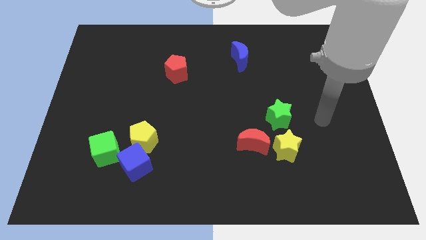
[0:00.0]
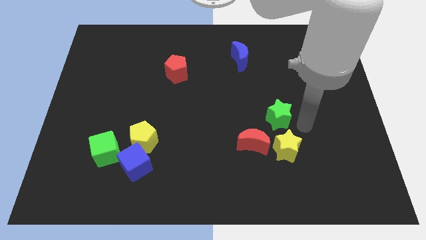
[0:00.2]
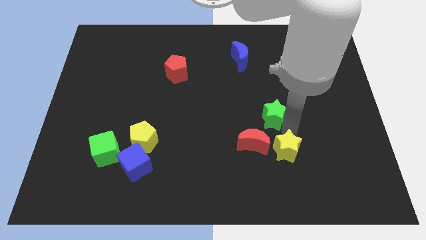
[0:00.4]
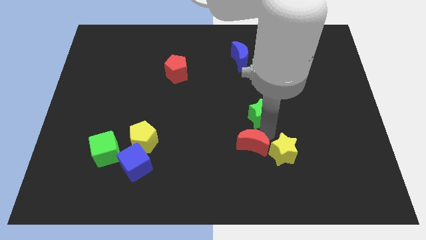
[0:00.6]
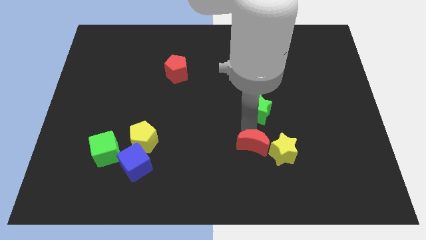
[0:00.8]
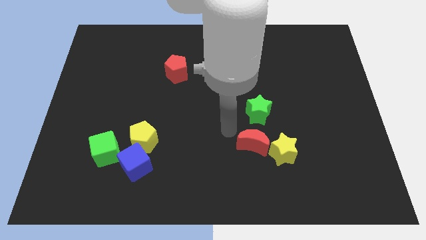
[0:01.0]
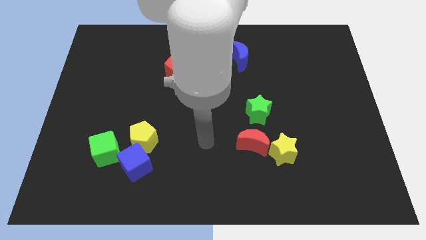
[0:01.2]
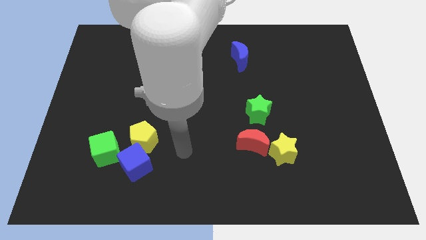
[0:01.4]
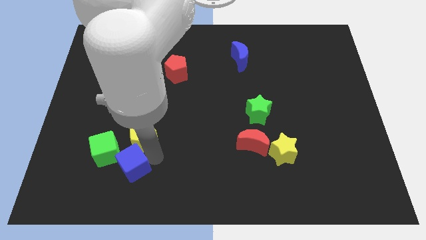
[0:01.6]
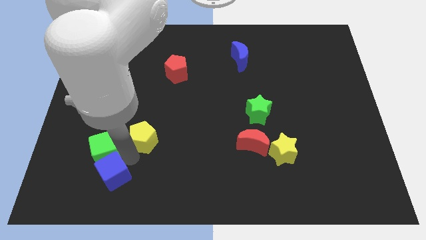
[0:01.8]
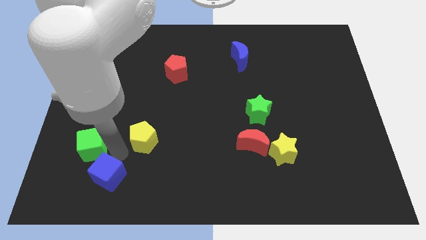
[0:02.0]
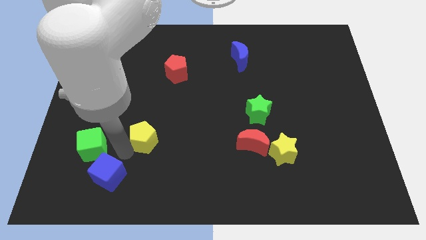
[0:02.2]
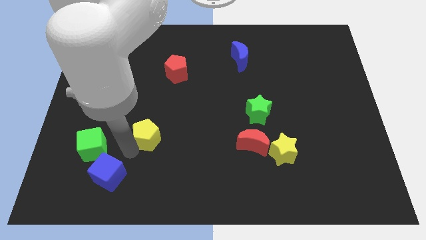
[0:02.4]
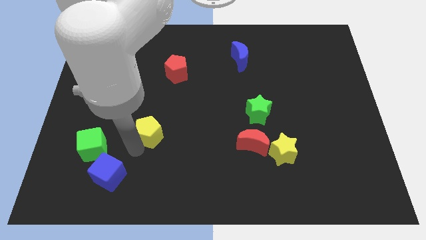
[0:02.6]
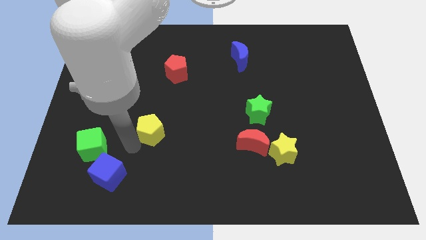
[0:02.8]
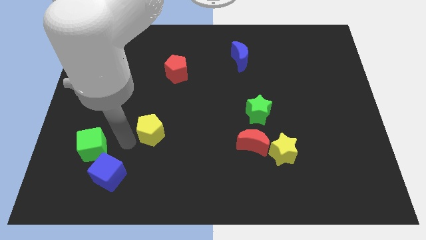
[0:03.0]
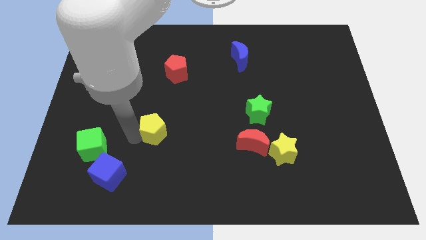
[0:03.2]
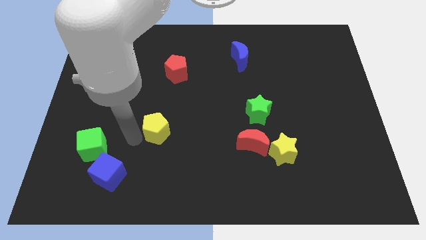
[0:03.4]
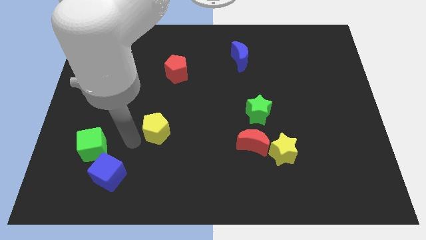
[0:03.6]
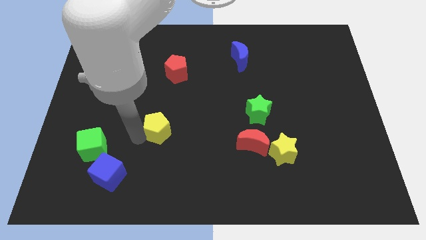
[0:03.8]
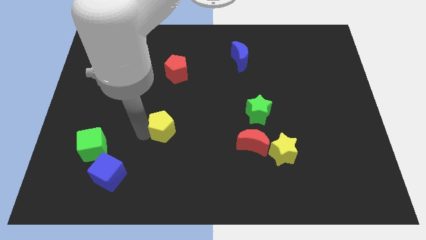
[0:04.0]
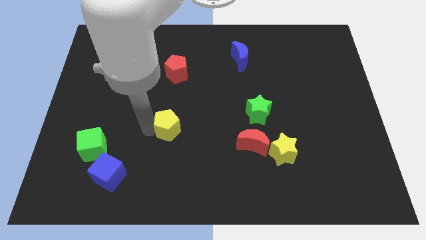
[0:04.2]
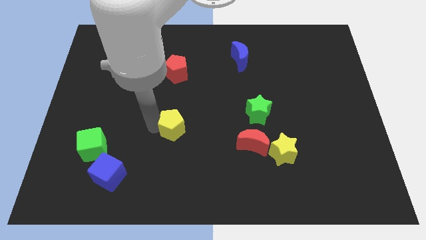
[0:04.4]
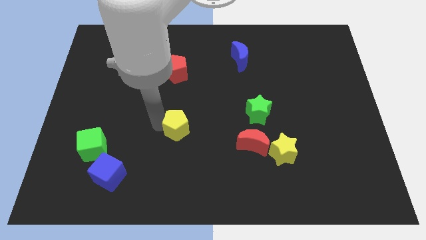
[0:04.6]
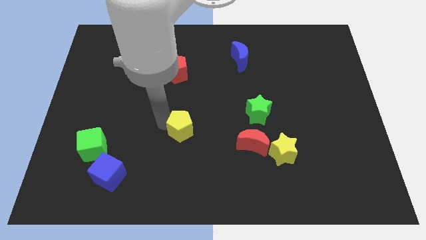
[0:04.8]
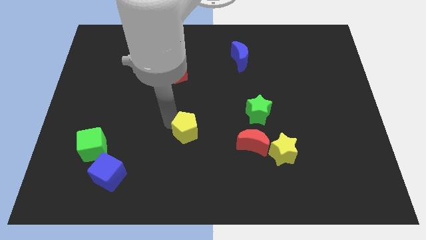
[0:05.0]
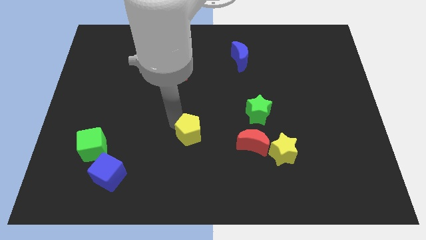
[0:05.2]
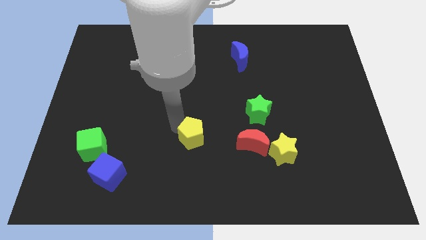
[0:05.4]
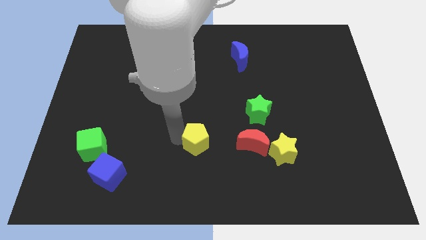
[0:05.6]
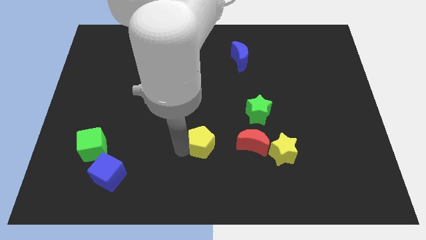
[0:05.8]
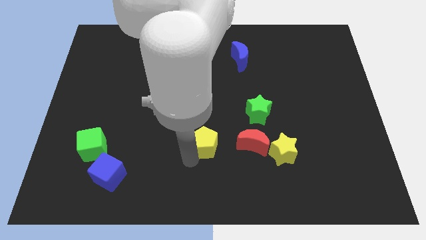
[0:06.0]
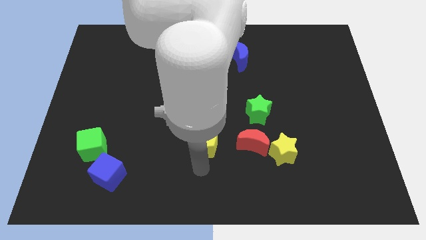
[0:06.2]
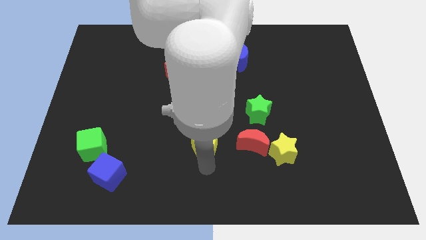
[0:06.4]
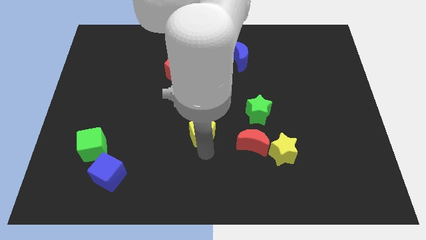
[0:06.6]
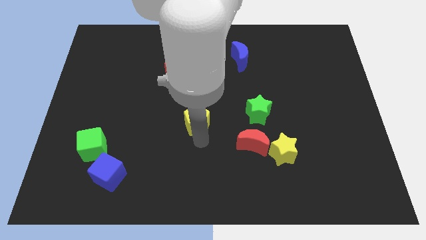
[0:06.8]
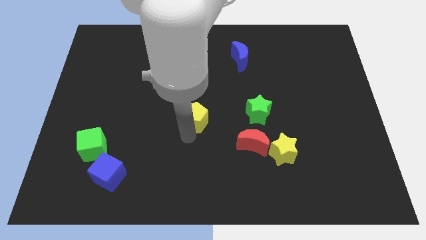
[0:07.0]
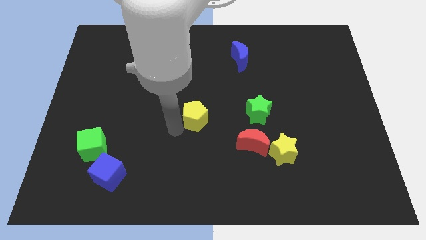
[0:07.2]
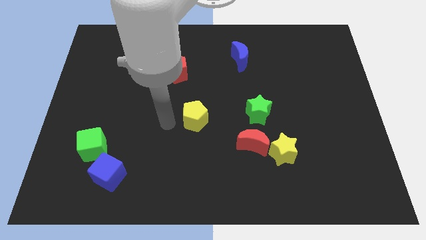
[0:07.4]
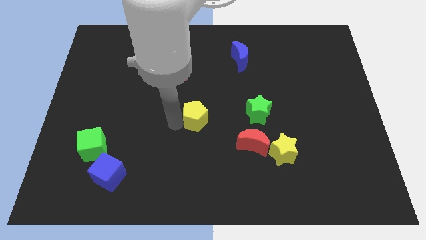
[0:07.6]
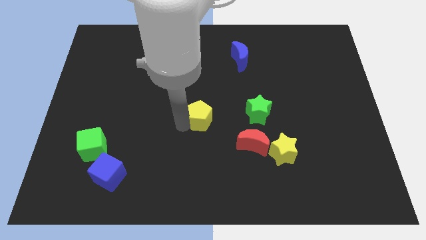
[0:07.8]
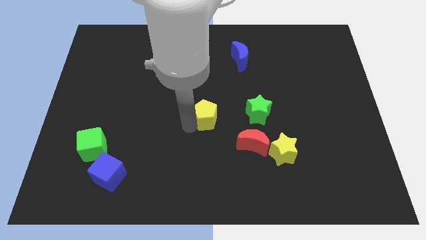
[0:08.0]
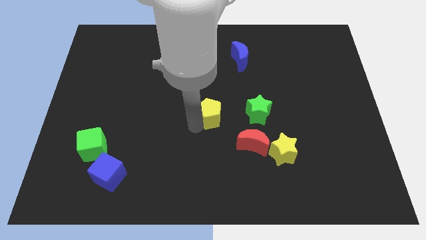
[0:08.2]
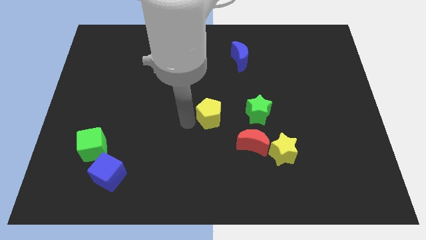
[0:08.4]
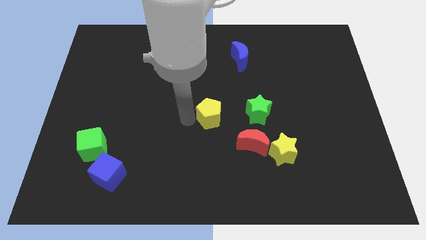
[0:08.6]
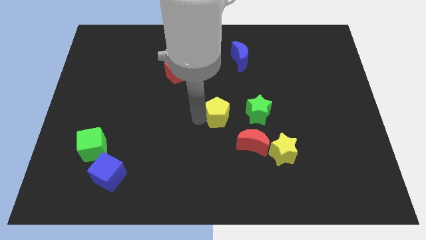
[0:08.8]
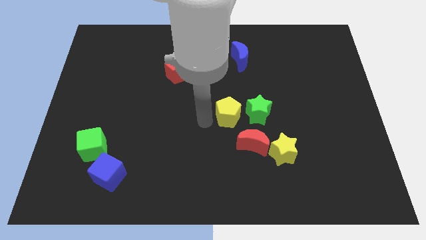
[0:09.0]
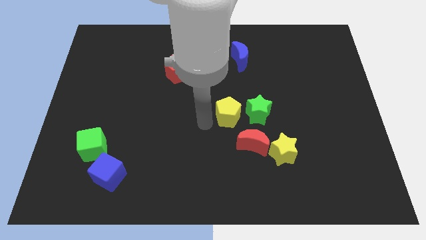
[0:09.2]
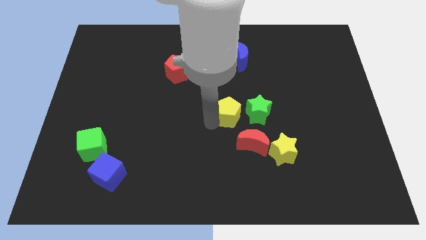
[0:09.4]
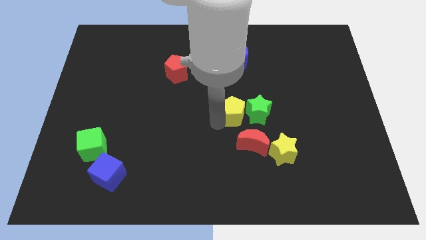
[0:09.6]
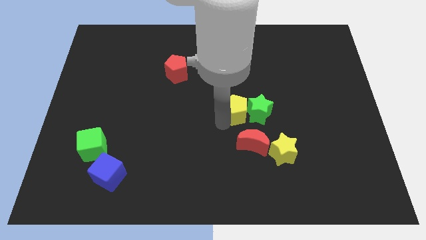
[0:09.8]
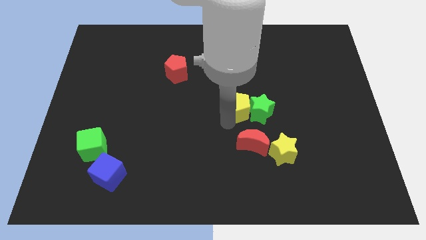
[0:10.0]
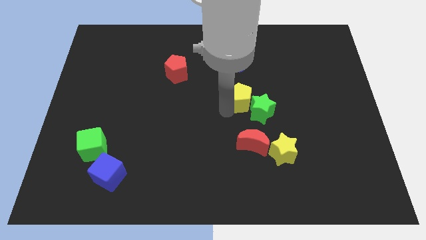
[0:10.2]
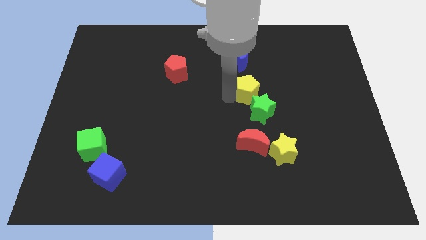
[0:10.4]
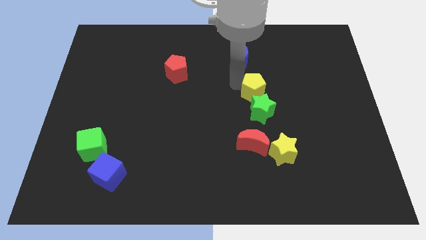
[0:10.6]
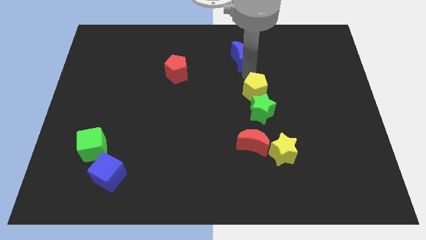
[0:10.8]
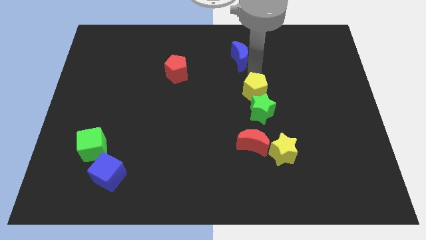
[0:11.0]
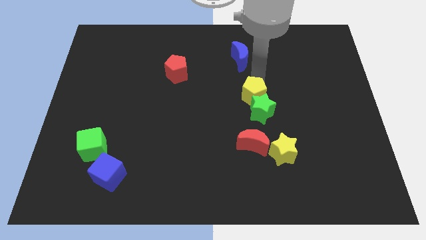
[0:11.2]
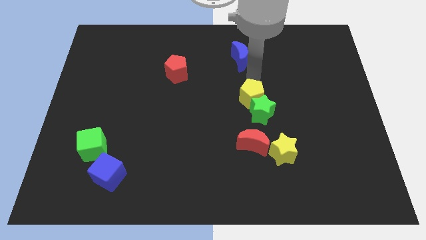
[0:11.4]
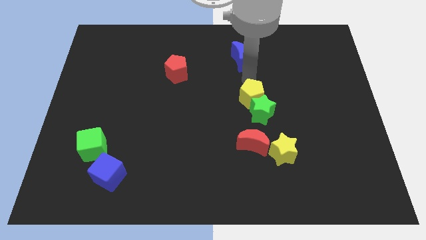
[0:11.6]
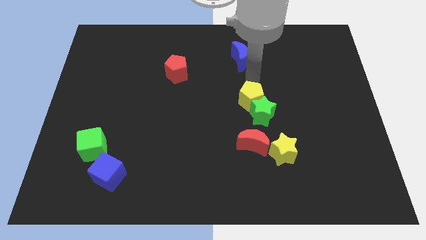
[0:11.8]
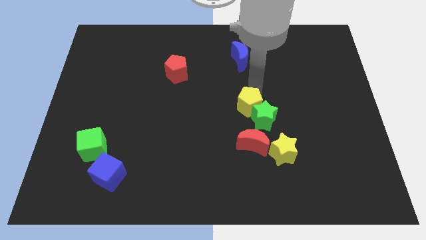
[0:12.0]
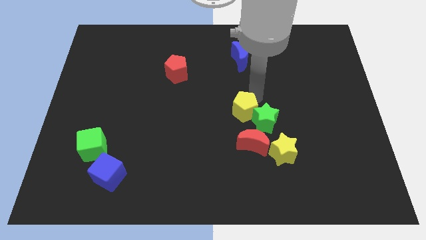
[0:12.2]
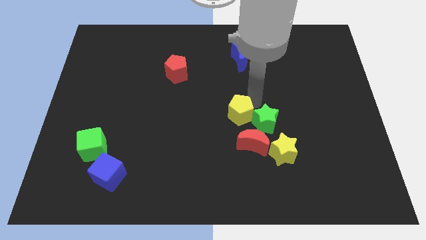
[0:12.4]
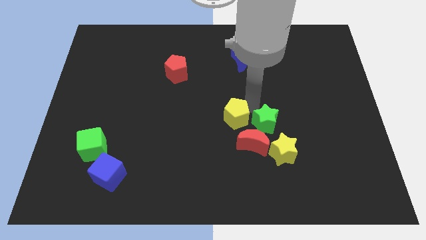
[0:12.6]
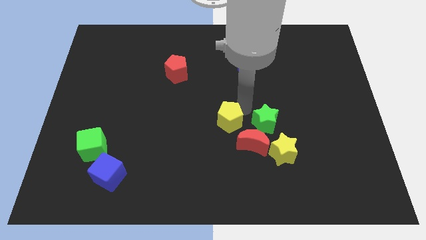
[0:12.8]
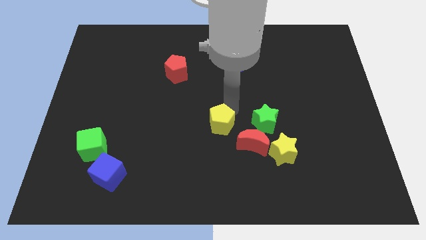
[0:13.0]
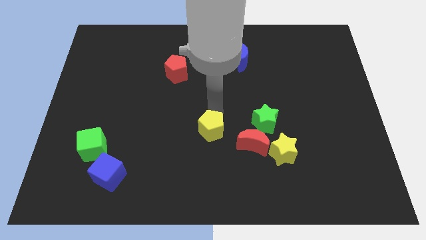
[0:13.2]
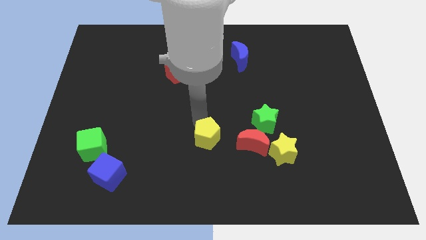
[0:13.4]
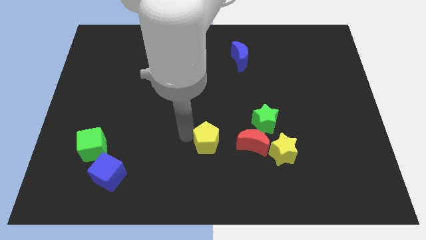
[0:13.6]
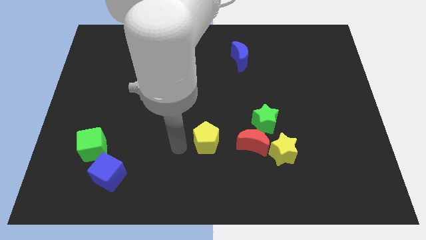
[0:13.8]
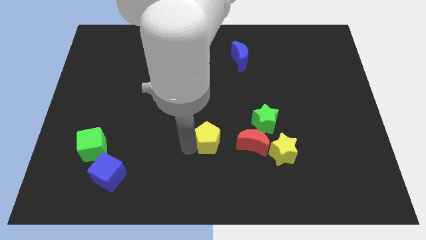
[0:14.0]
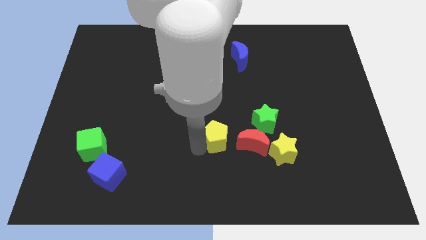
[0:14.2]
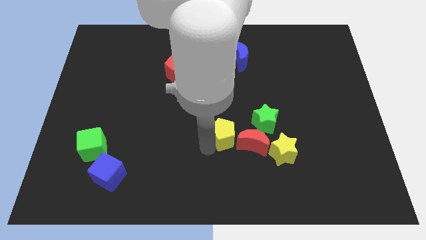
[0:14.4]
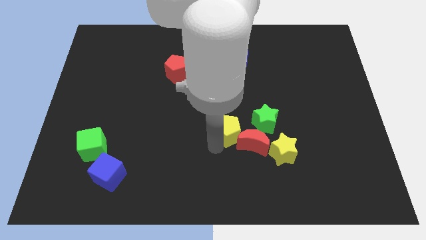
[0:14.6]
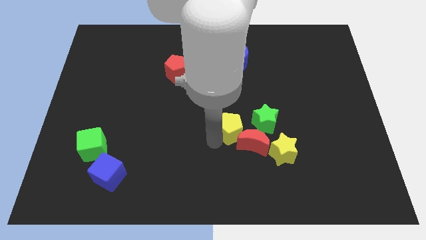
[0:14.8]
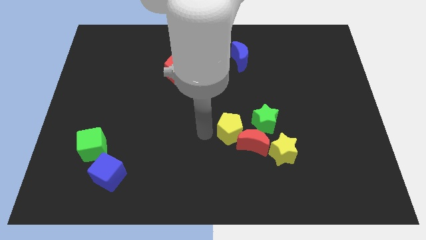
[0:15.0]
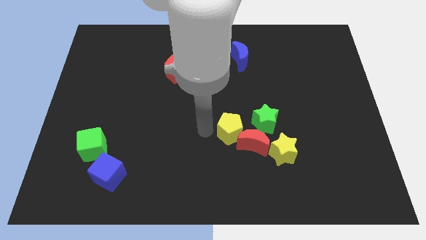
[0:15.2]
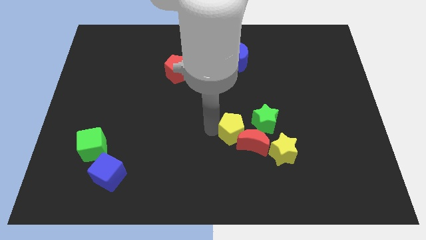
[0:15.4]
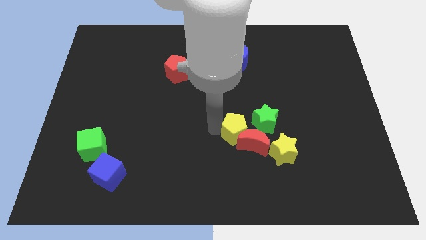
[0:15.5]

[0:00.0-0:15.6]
move the yellow pentagon to the top left of the yellow star
